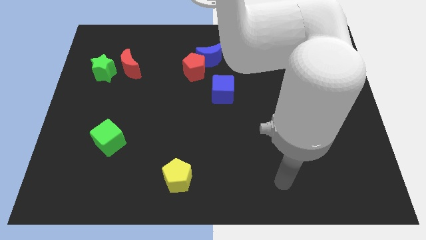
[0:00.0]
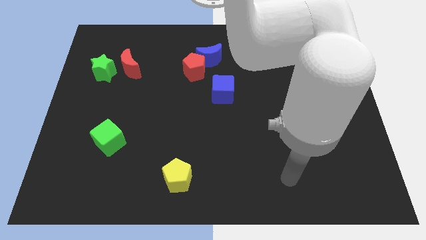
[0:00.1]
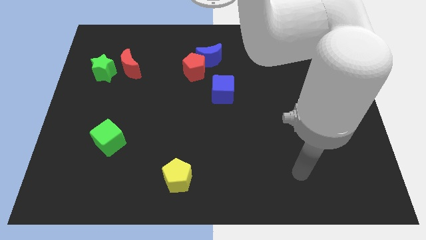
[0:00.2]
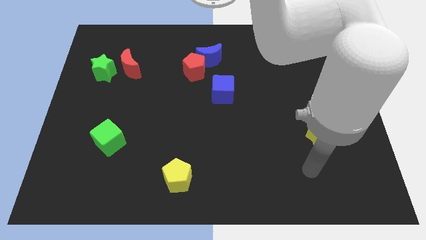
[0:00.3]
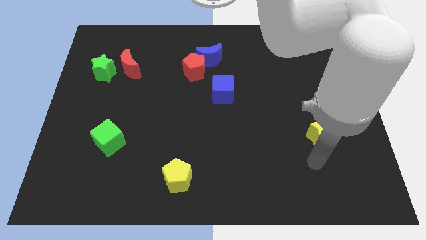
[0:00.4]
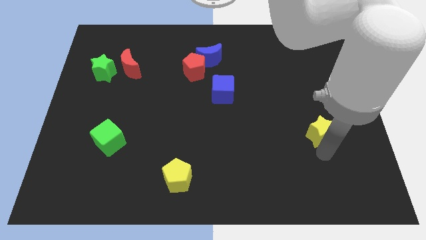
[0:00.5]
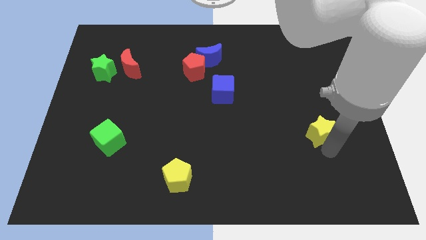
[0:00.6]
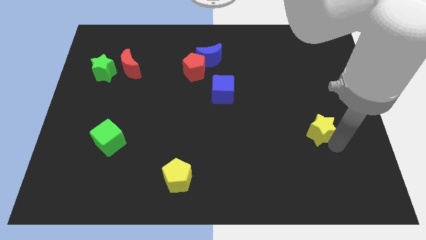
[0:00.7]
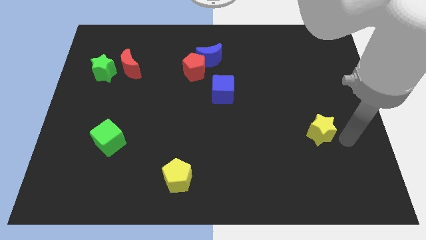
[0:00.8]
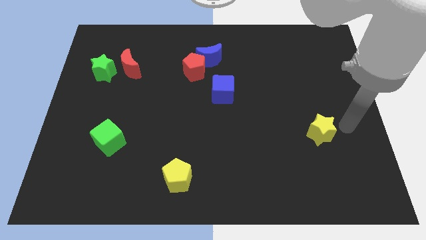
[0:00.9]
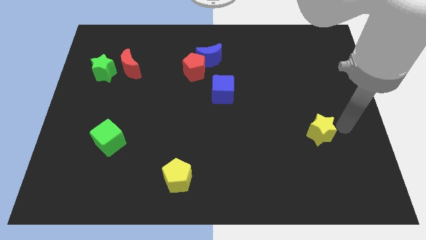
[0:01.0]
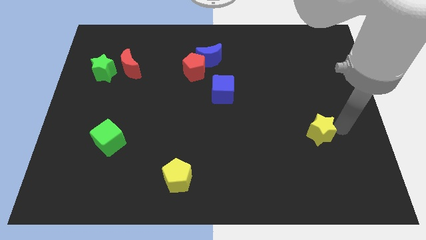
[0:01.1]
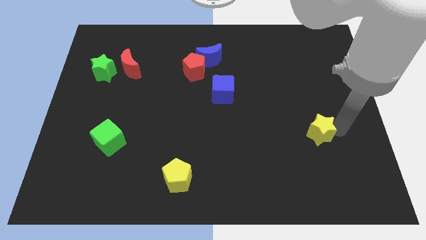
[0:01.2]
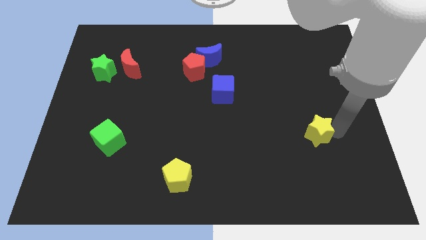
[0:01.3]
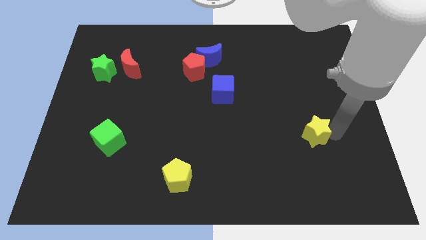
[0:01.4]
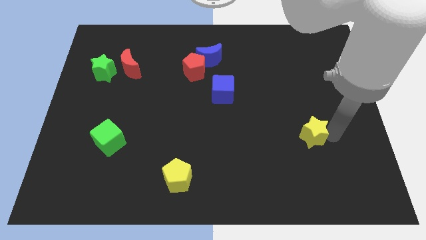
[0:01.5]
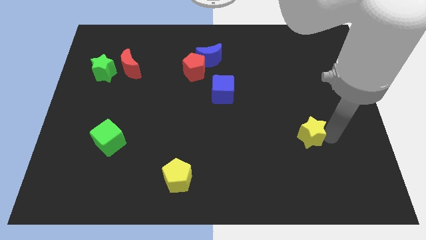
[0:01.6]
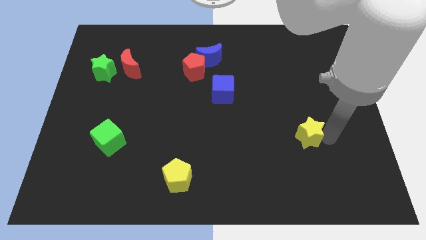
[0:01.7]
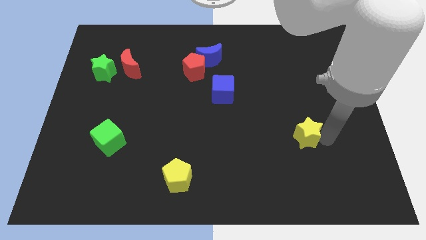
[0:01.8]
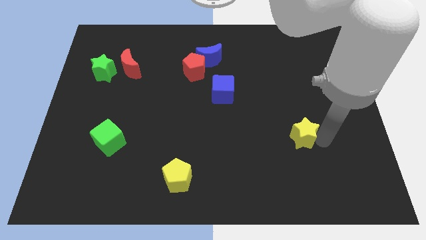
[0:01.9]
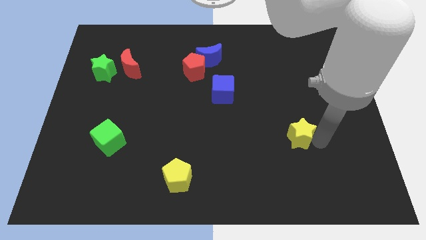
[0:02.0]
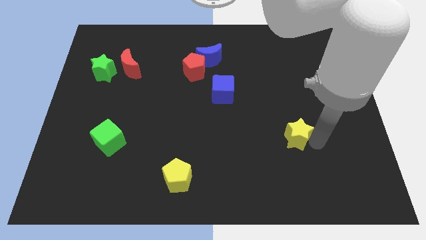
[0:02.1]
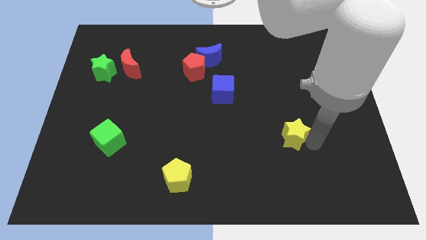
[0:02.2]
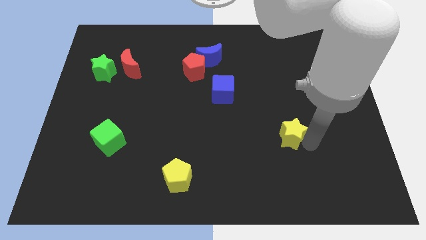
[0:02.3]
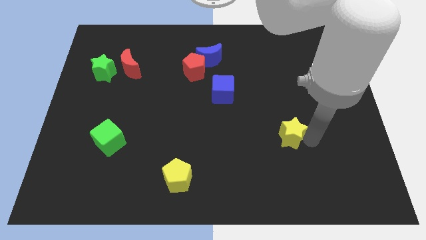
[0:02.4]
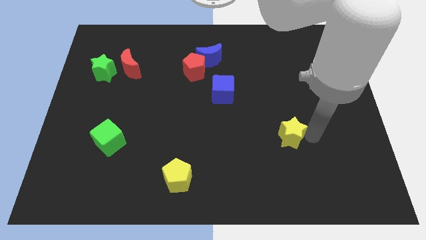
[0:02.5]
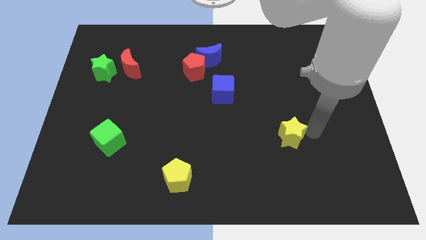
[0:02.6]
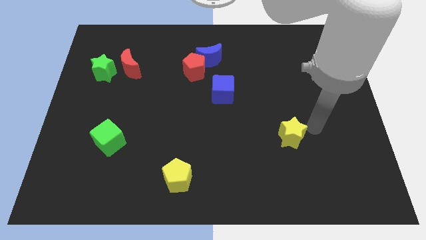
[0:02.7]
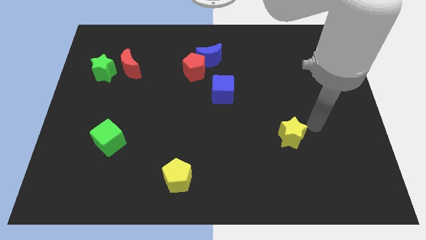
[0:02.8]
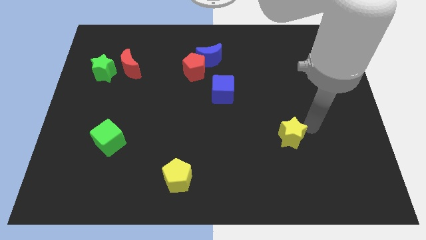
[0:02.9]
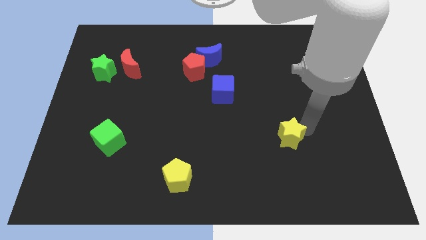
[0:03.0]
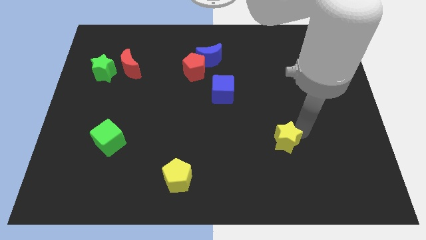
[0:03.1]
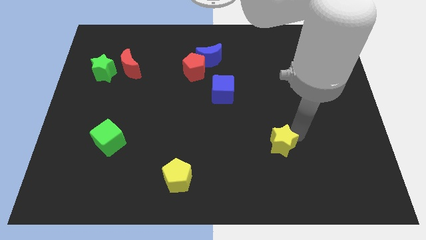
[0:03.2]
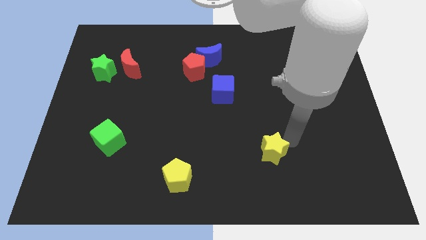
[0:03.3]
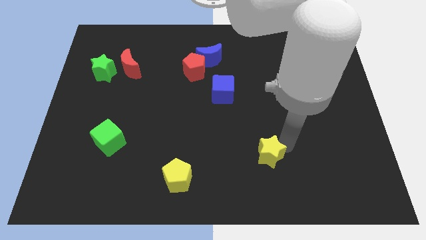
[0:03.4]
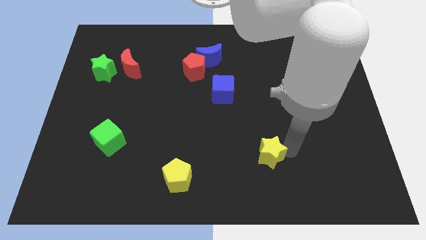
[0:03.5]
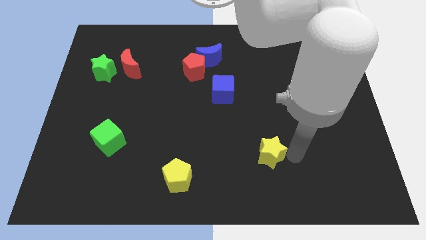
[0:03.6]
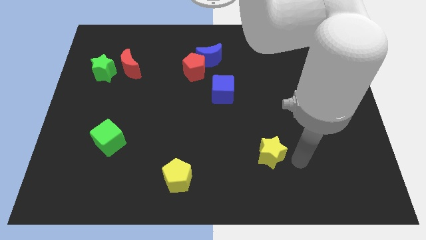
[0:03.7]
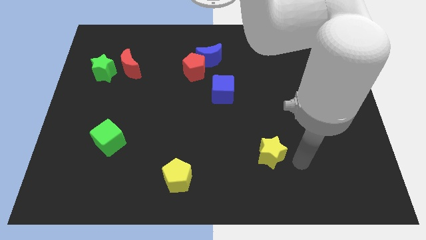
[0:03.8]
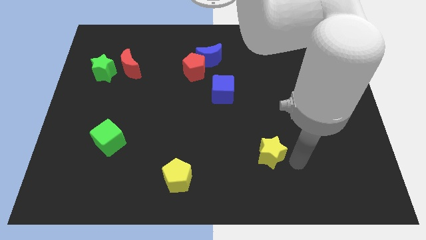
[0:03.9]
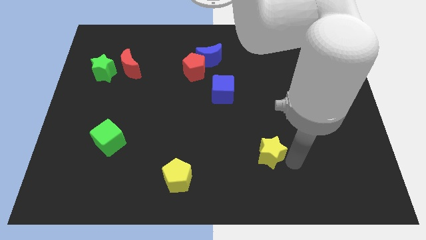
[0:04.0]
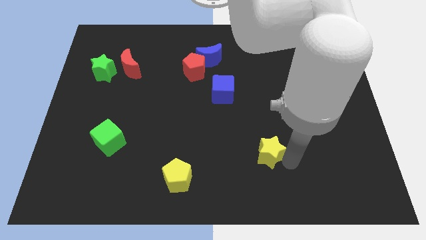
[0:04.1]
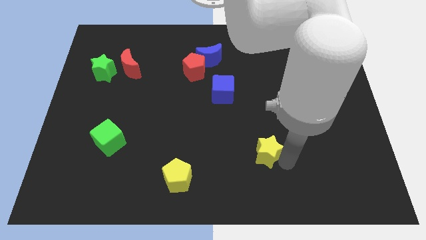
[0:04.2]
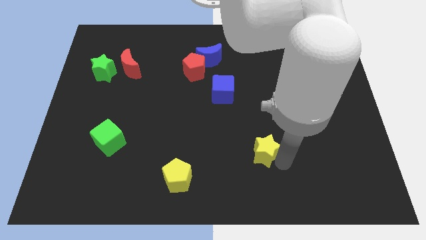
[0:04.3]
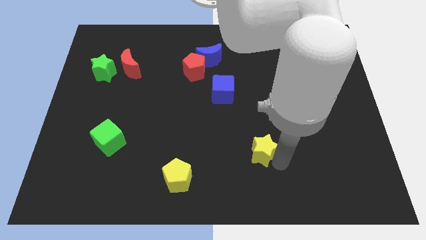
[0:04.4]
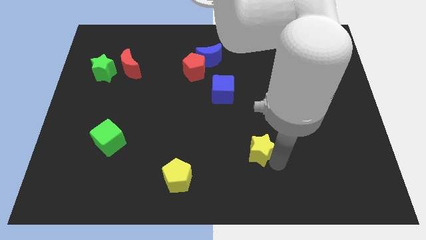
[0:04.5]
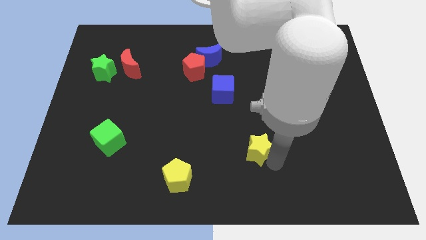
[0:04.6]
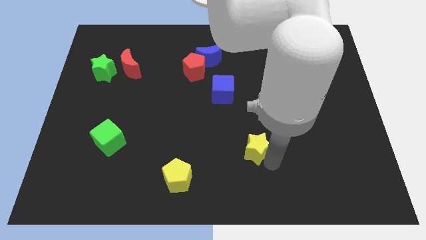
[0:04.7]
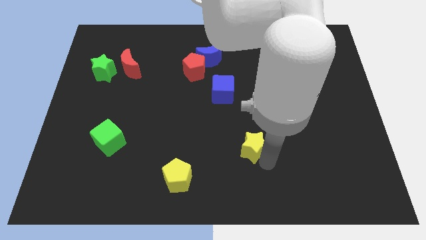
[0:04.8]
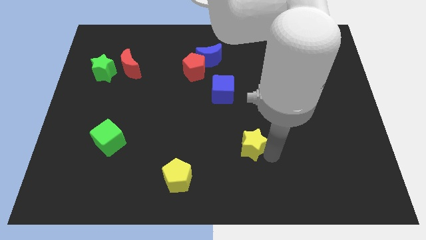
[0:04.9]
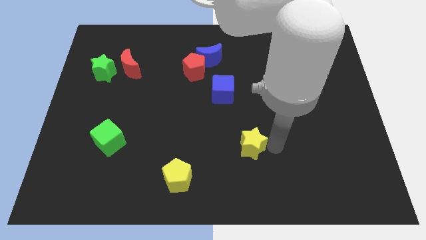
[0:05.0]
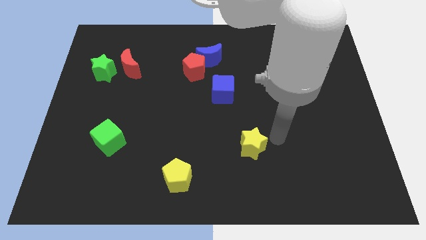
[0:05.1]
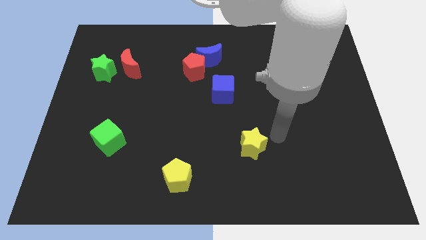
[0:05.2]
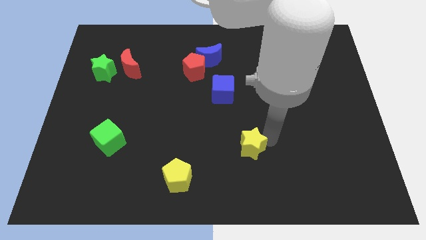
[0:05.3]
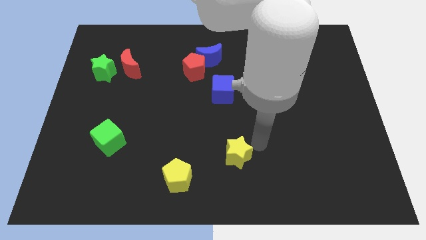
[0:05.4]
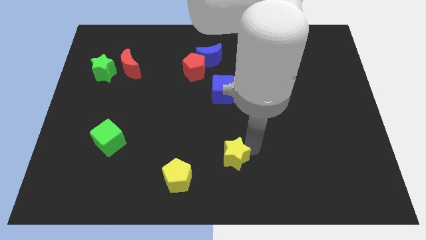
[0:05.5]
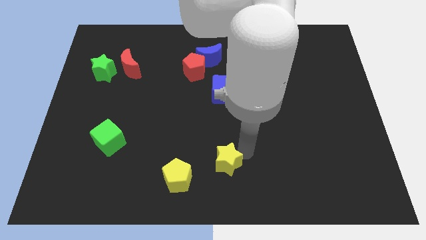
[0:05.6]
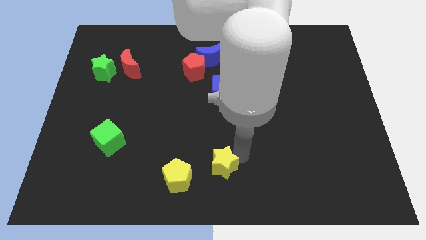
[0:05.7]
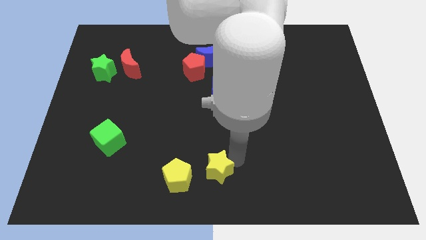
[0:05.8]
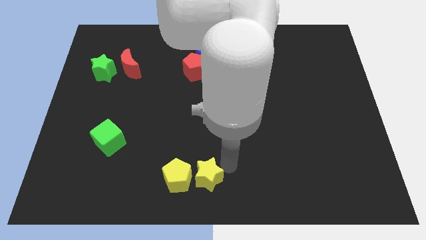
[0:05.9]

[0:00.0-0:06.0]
push the yellow star close to the yellow pentagon

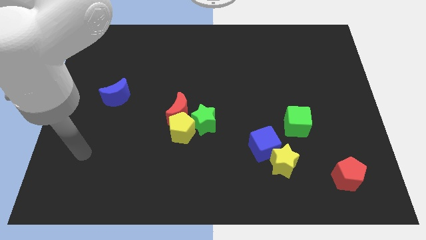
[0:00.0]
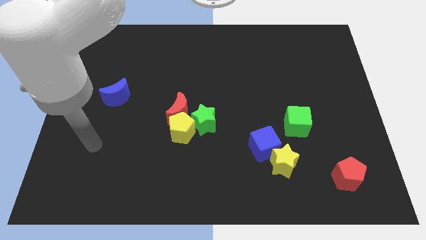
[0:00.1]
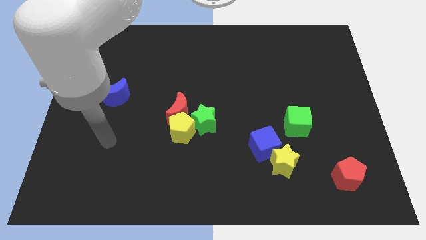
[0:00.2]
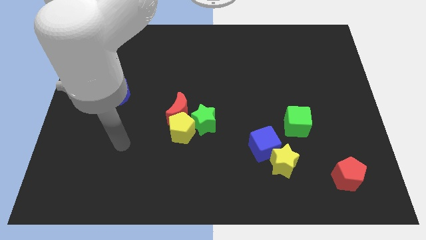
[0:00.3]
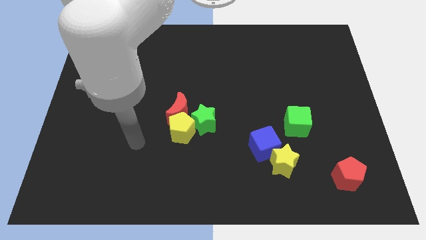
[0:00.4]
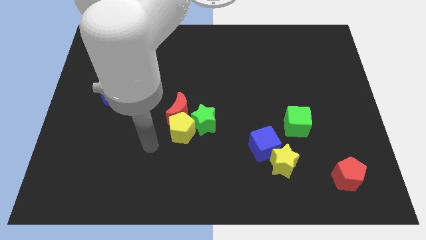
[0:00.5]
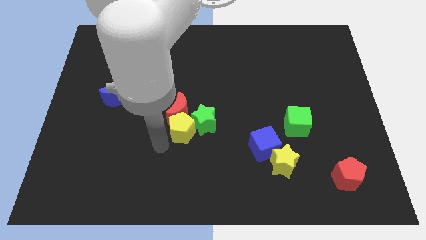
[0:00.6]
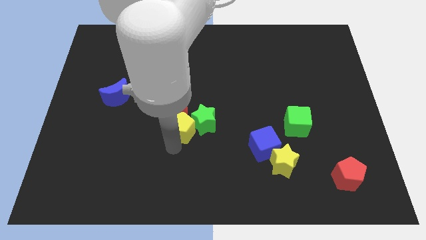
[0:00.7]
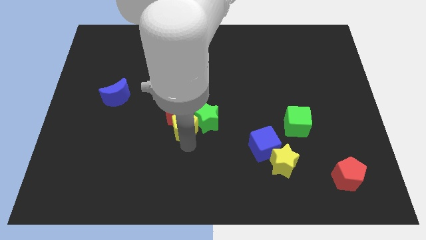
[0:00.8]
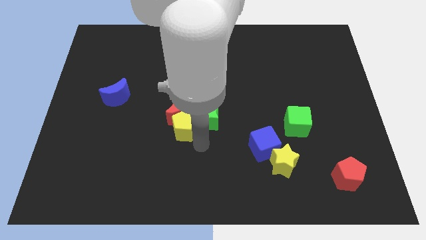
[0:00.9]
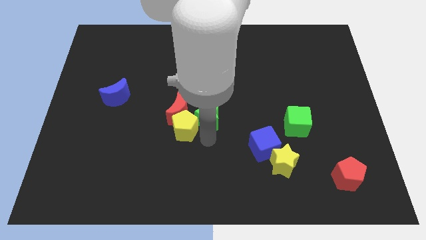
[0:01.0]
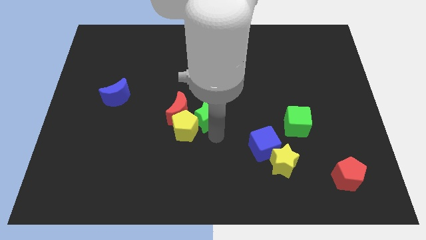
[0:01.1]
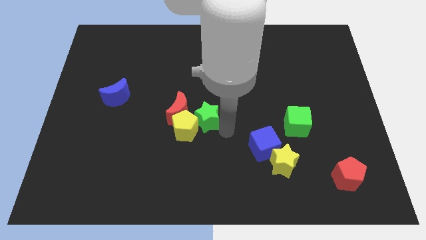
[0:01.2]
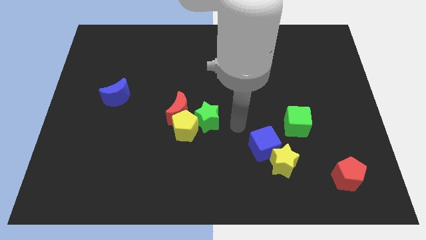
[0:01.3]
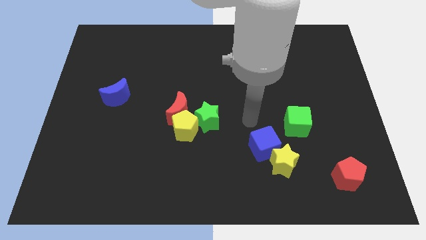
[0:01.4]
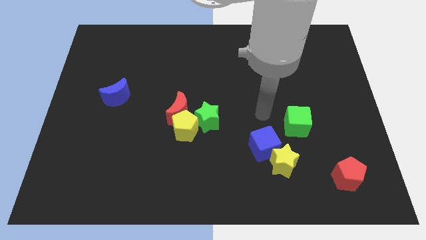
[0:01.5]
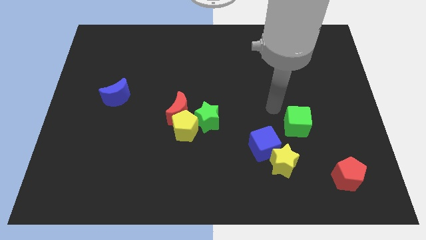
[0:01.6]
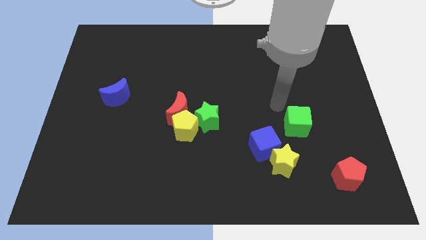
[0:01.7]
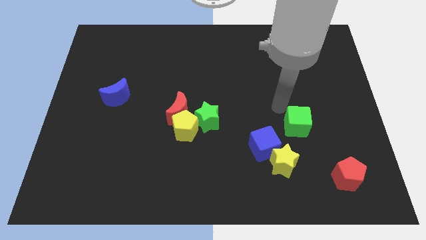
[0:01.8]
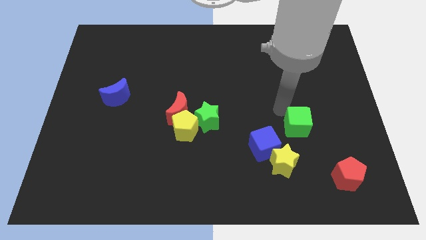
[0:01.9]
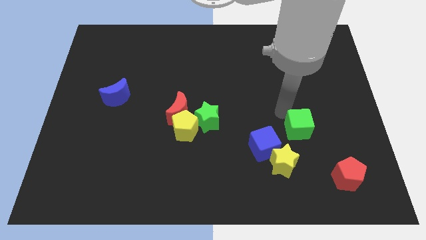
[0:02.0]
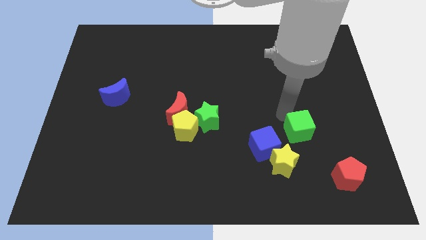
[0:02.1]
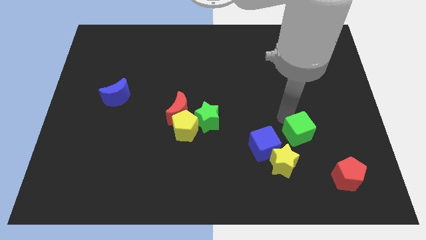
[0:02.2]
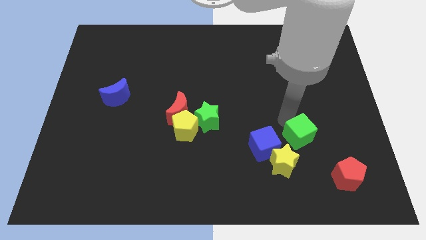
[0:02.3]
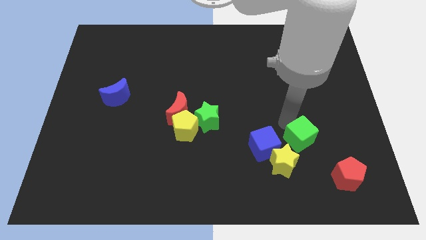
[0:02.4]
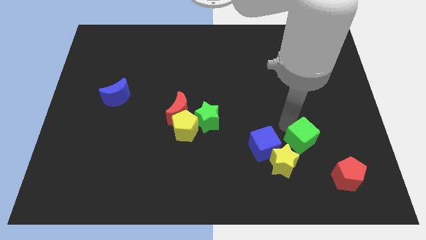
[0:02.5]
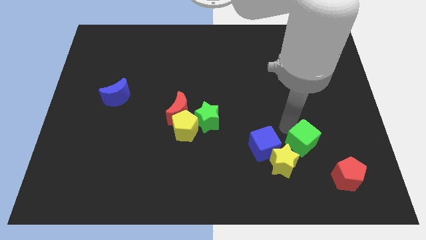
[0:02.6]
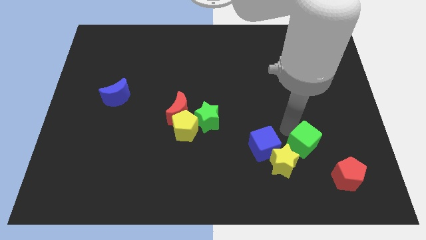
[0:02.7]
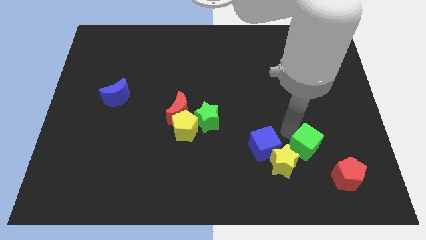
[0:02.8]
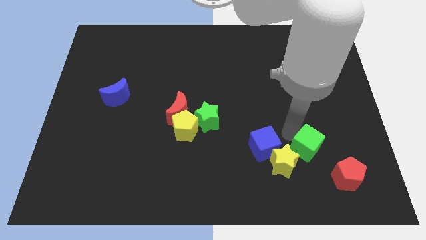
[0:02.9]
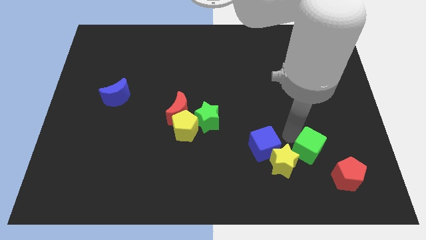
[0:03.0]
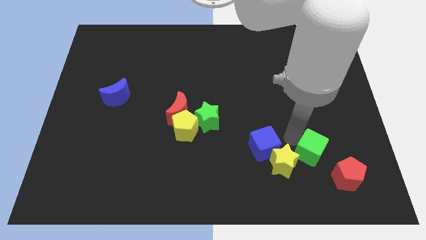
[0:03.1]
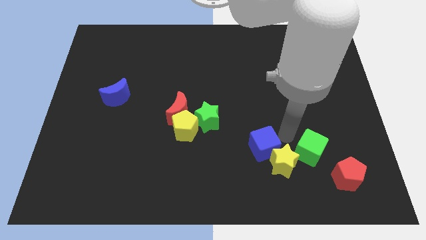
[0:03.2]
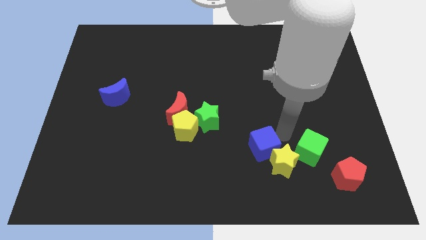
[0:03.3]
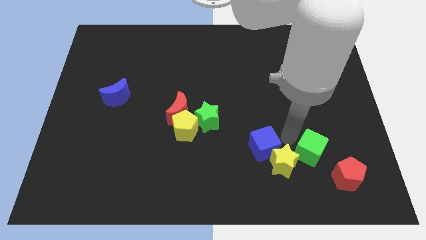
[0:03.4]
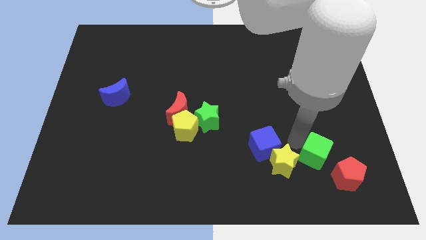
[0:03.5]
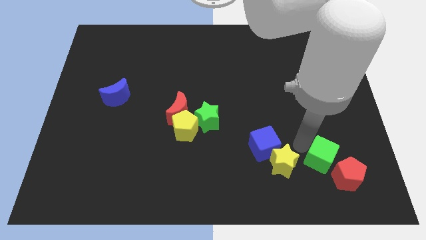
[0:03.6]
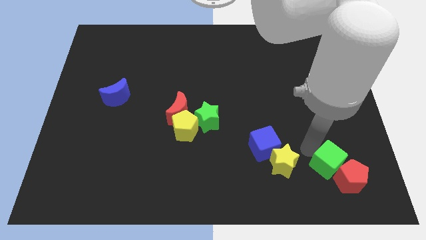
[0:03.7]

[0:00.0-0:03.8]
move the green cube towards the red pentagon
